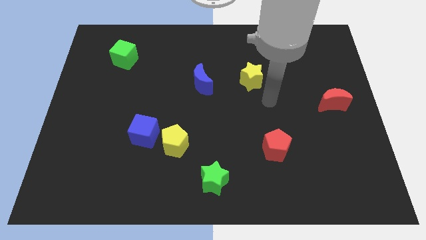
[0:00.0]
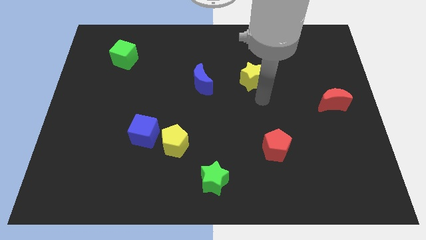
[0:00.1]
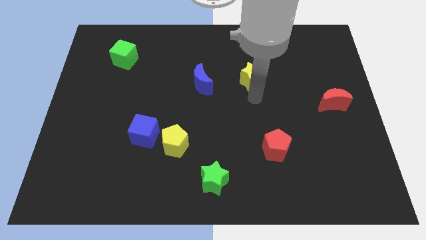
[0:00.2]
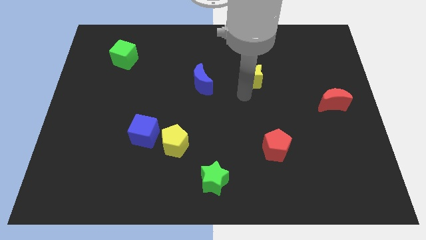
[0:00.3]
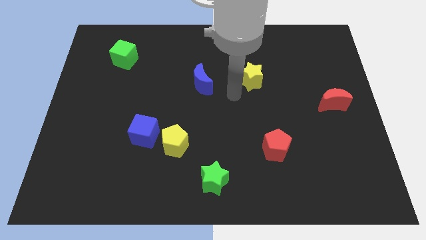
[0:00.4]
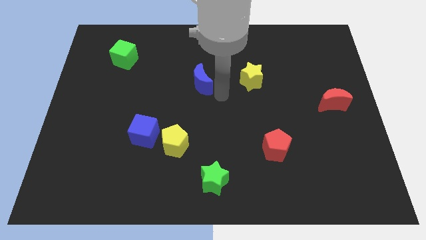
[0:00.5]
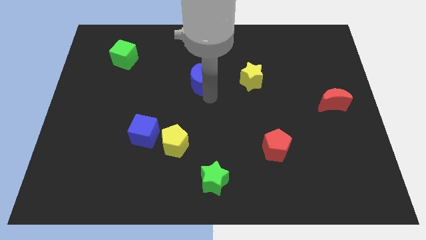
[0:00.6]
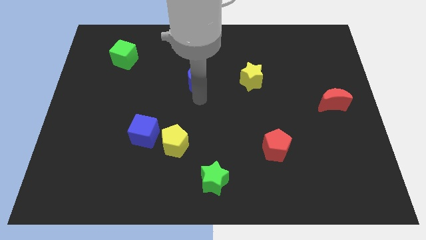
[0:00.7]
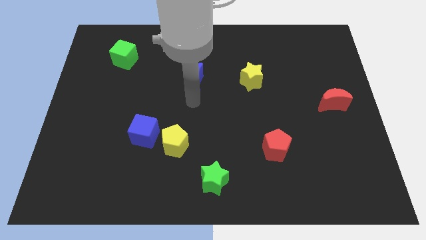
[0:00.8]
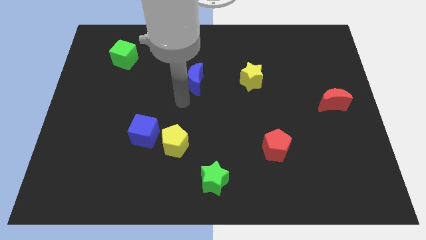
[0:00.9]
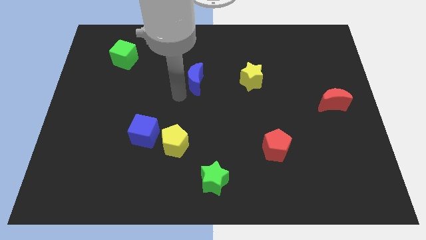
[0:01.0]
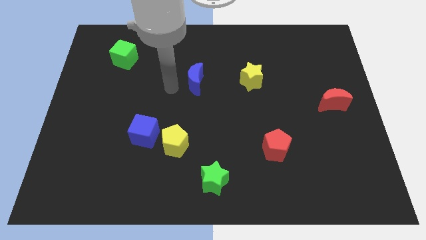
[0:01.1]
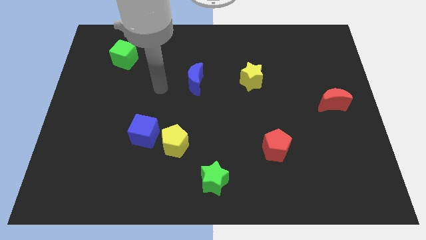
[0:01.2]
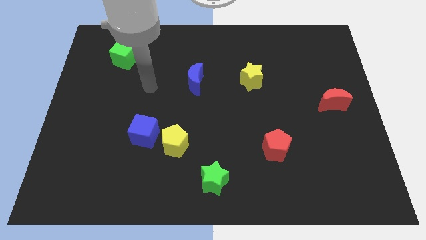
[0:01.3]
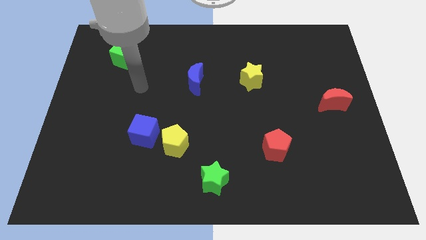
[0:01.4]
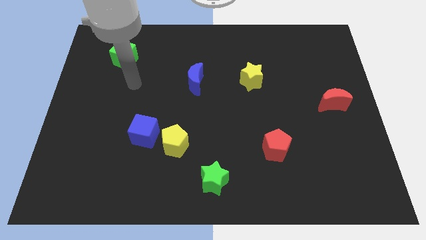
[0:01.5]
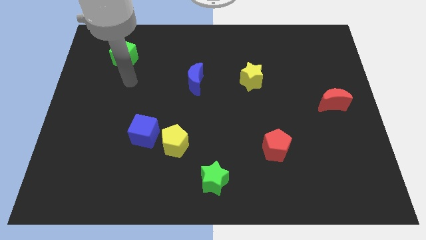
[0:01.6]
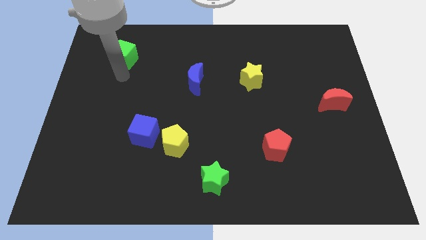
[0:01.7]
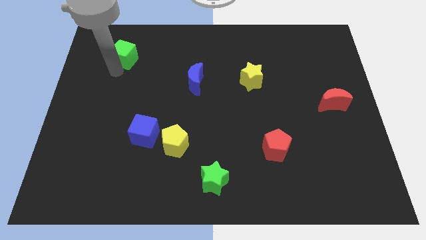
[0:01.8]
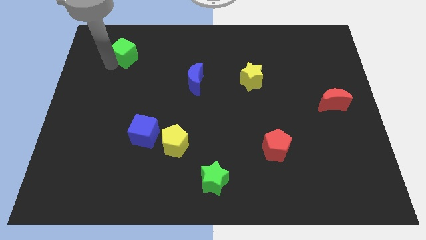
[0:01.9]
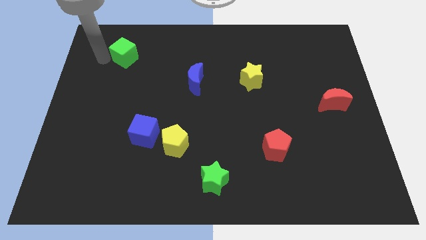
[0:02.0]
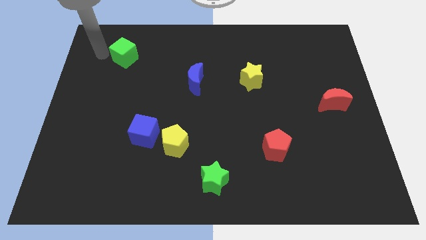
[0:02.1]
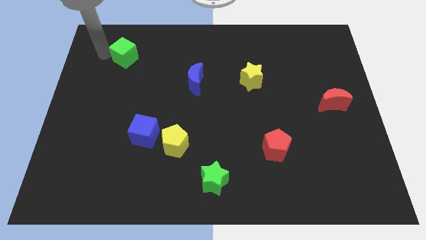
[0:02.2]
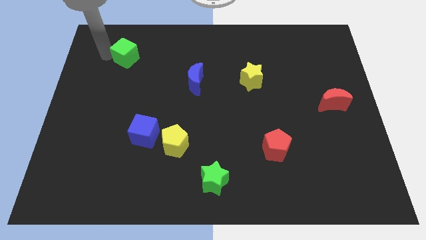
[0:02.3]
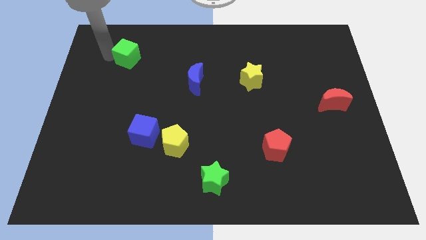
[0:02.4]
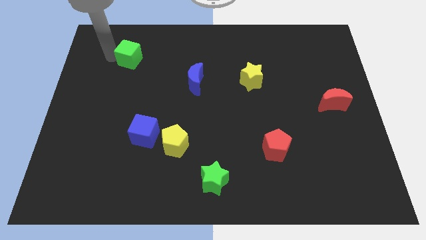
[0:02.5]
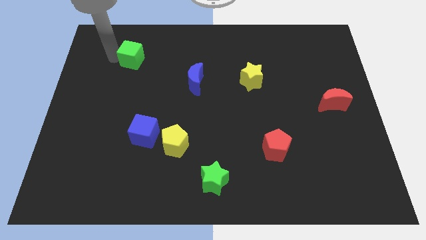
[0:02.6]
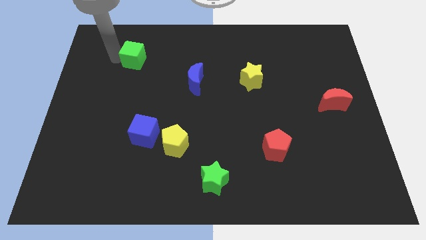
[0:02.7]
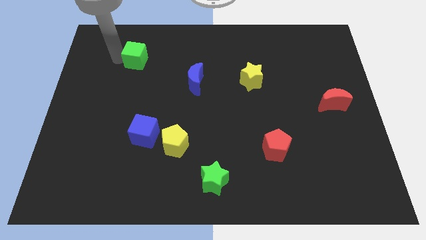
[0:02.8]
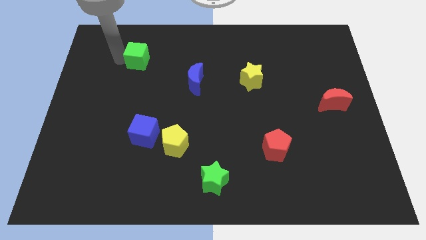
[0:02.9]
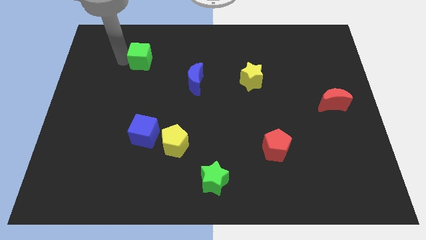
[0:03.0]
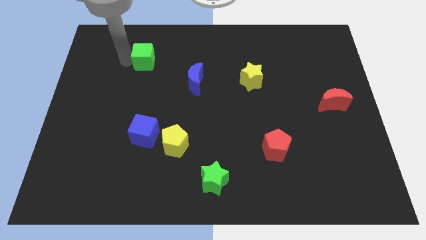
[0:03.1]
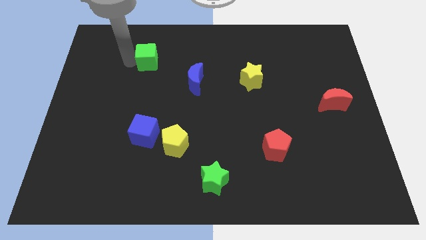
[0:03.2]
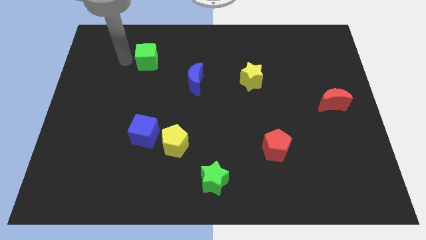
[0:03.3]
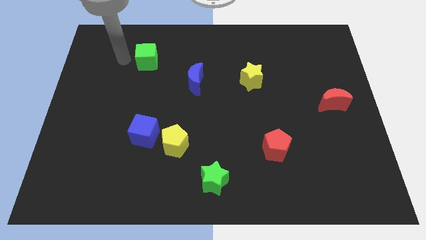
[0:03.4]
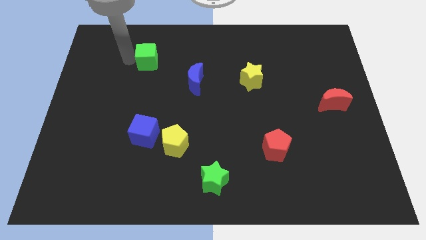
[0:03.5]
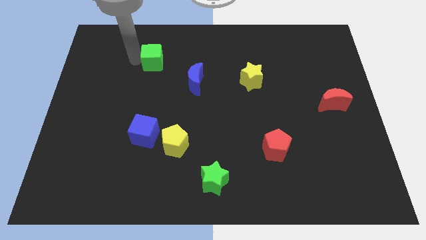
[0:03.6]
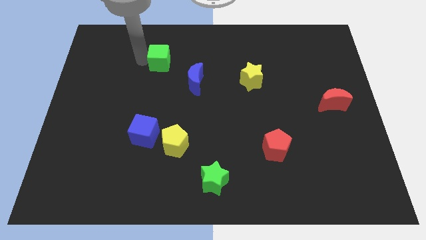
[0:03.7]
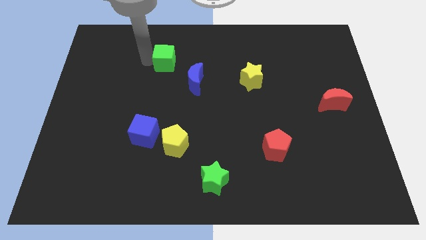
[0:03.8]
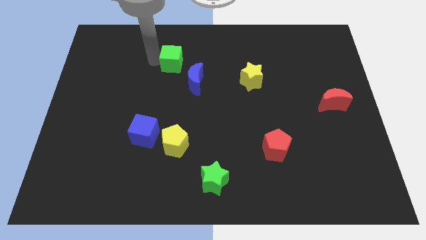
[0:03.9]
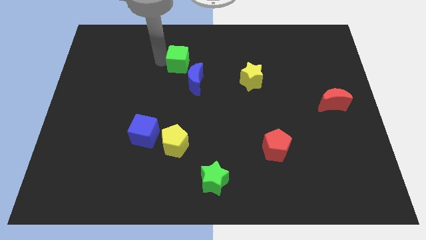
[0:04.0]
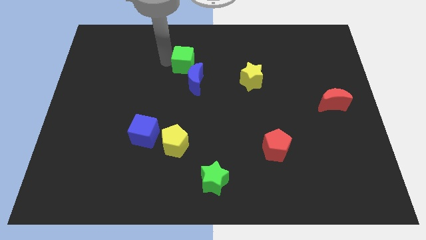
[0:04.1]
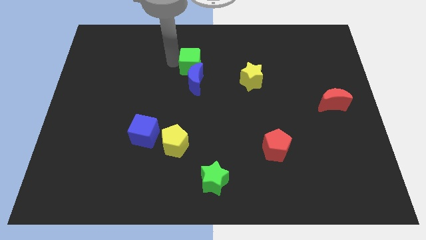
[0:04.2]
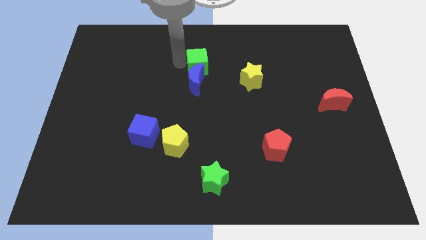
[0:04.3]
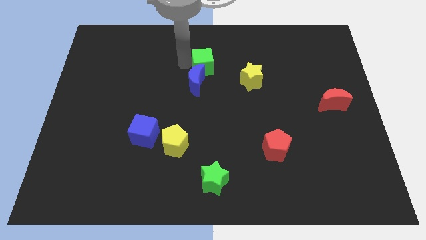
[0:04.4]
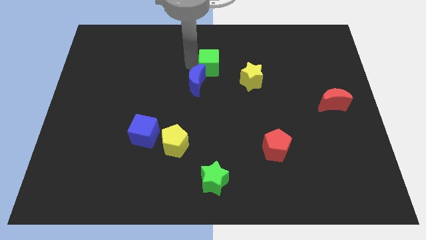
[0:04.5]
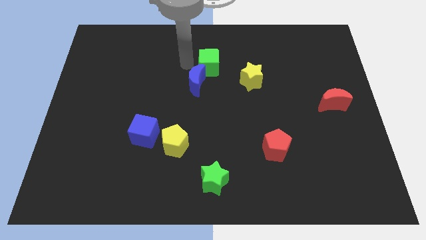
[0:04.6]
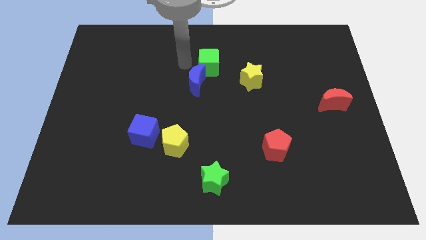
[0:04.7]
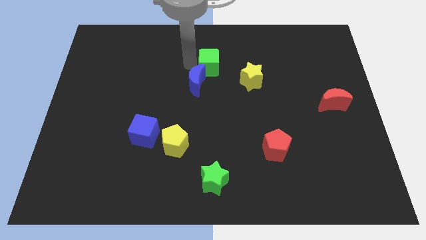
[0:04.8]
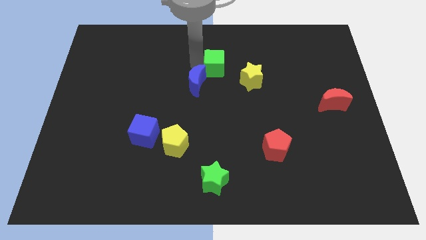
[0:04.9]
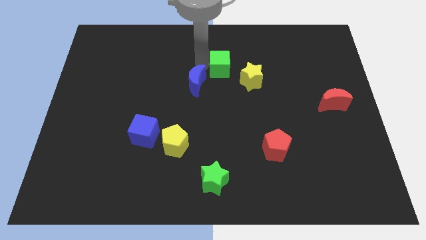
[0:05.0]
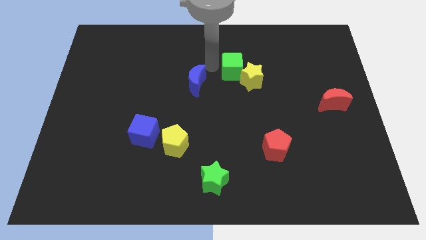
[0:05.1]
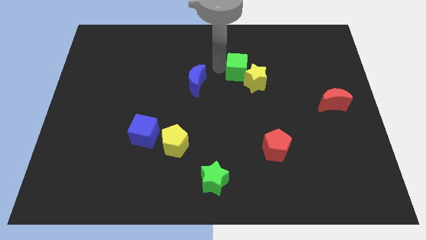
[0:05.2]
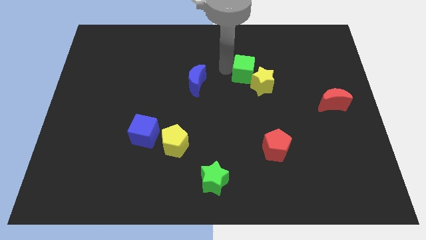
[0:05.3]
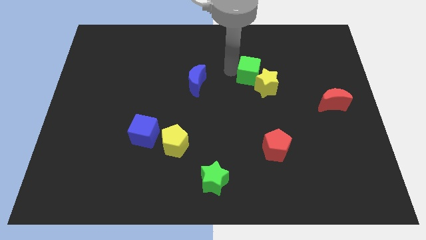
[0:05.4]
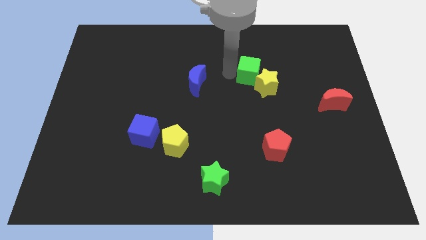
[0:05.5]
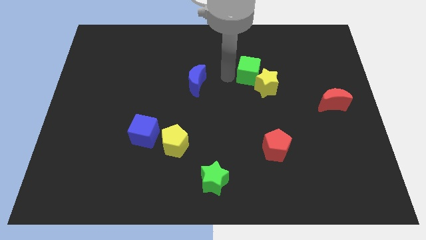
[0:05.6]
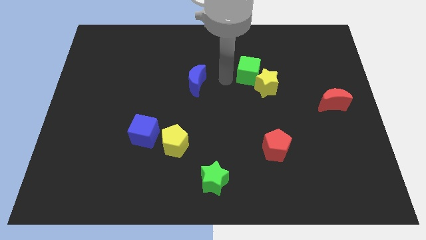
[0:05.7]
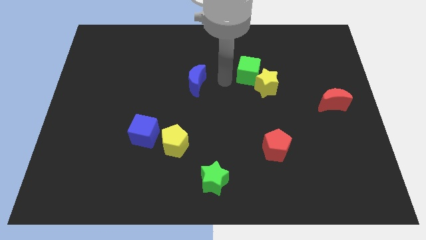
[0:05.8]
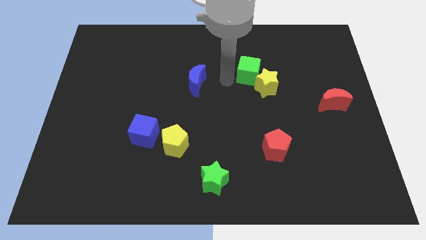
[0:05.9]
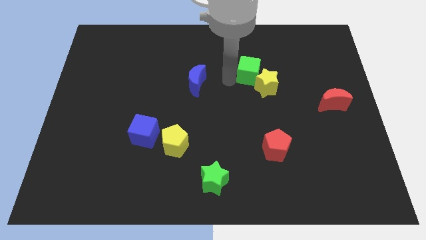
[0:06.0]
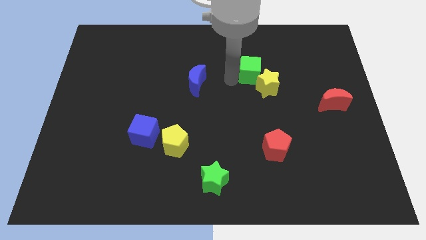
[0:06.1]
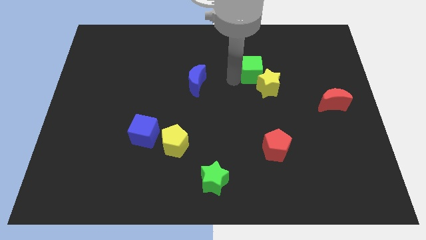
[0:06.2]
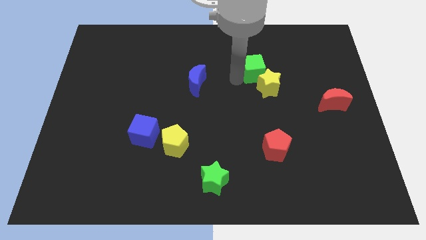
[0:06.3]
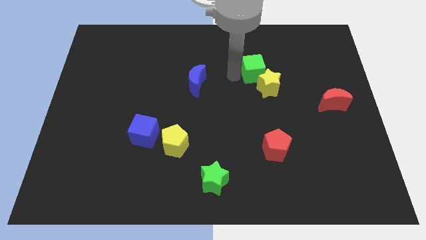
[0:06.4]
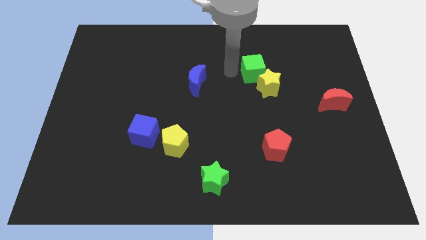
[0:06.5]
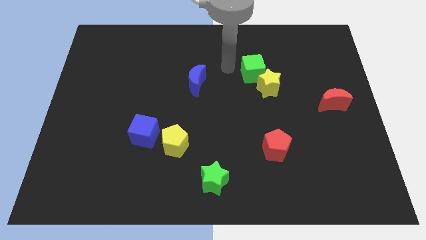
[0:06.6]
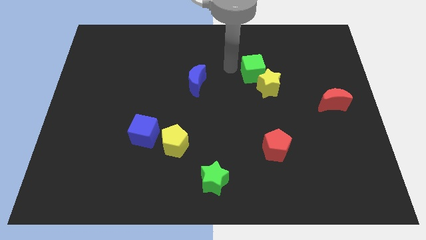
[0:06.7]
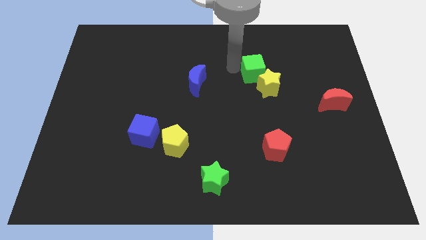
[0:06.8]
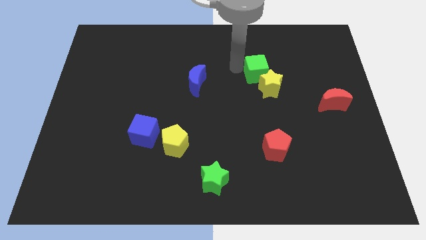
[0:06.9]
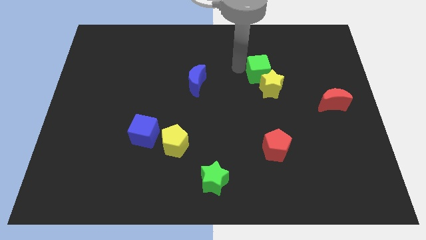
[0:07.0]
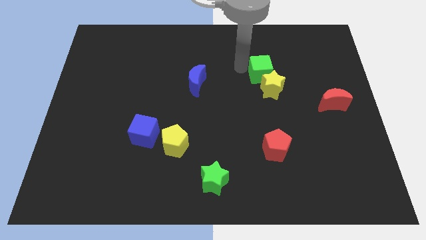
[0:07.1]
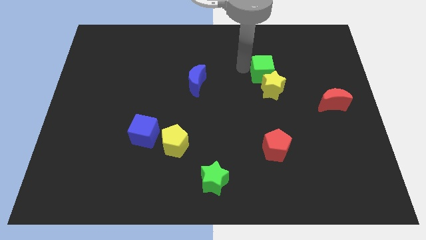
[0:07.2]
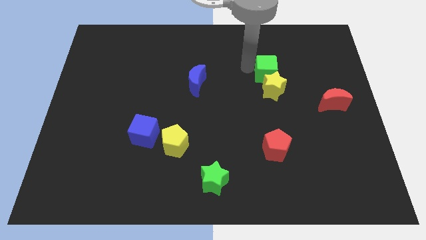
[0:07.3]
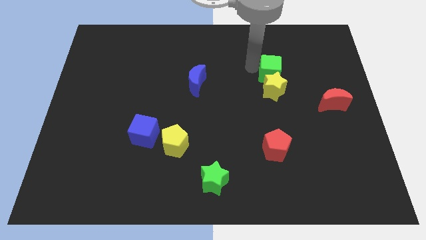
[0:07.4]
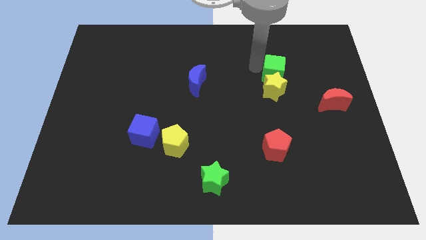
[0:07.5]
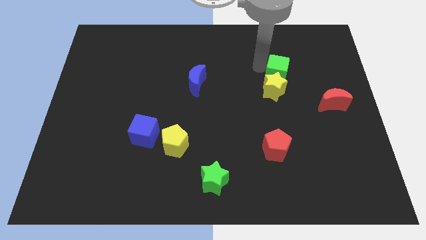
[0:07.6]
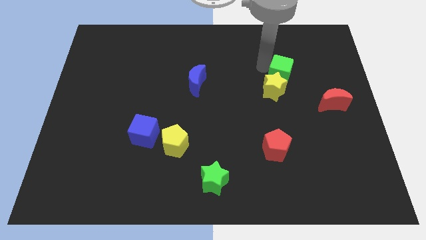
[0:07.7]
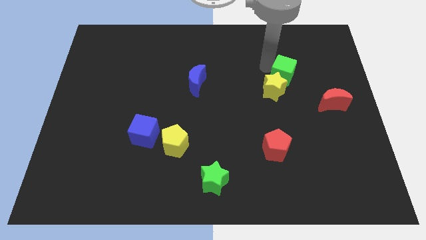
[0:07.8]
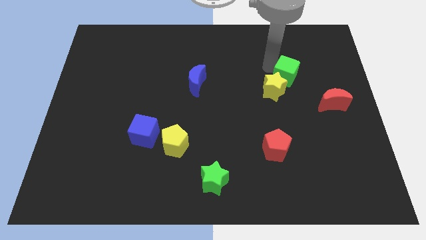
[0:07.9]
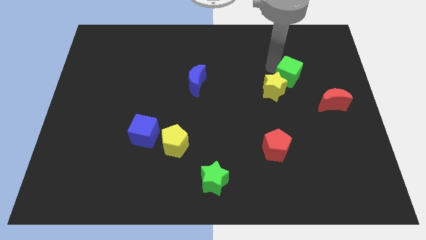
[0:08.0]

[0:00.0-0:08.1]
move the green cube to the top left of the red moon
